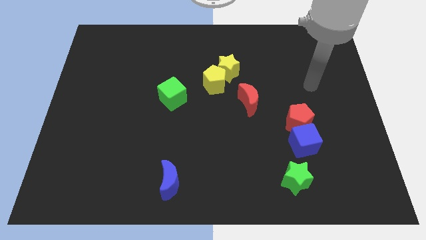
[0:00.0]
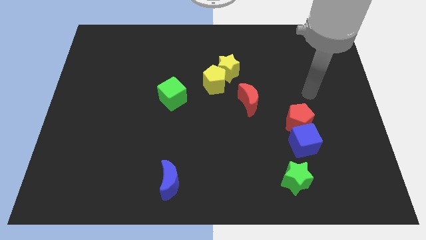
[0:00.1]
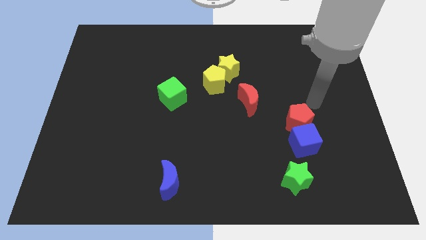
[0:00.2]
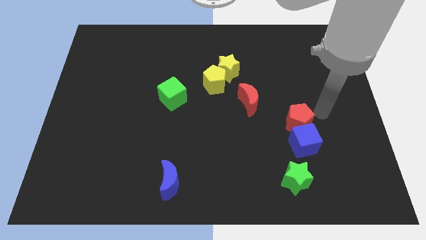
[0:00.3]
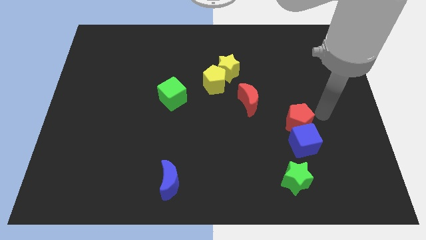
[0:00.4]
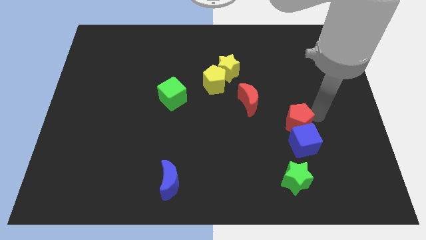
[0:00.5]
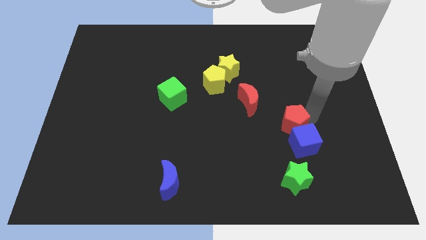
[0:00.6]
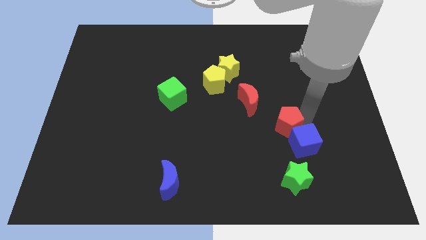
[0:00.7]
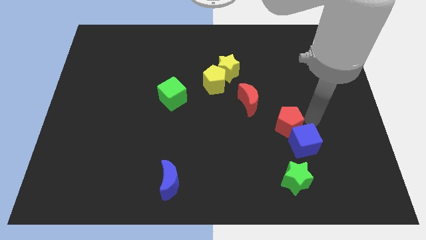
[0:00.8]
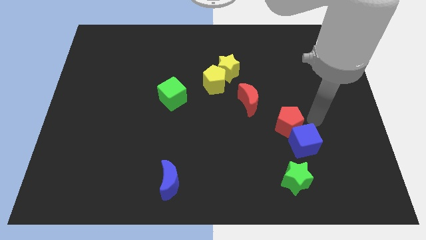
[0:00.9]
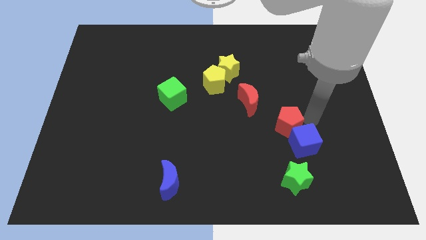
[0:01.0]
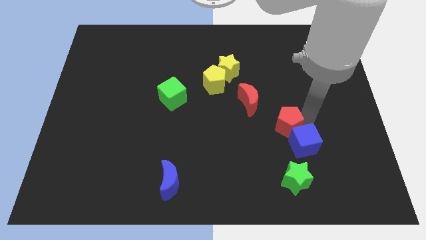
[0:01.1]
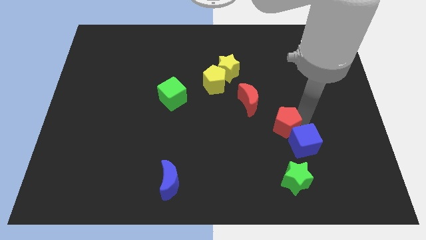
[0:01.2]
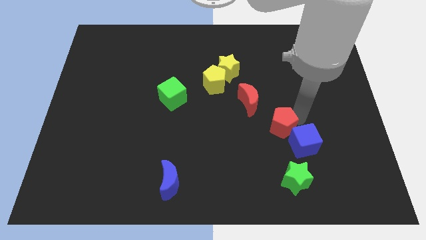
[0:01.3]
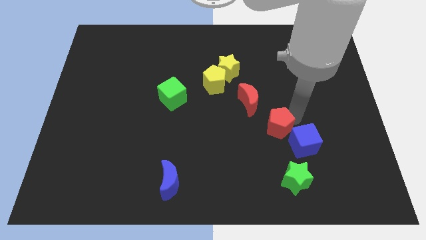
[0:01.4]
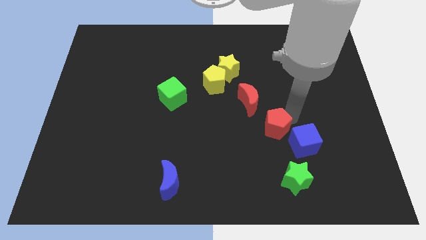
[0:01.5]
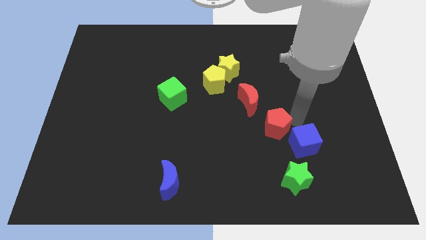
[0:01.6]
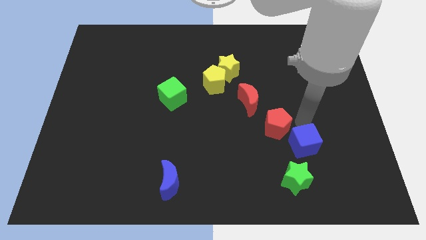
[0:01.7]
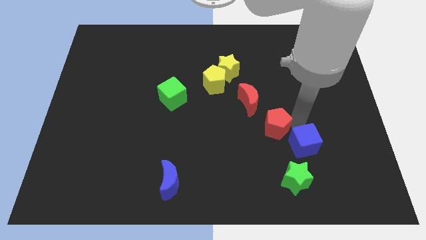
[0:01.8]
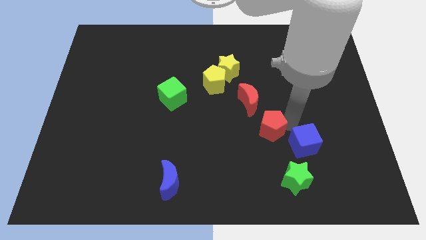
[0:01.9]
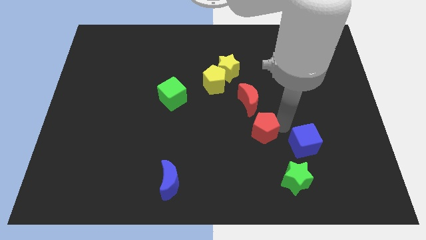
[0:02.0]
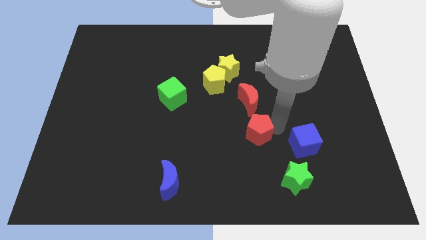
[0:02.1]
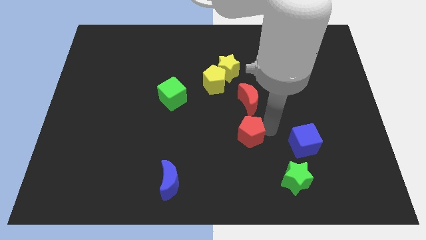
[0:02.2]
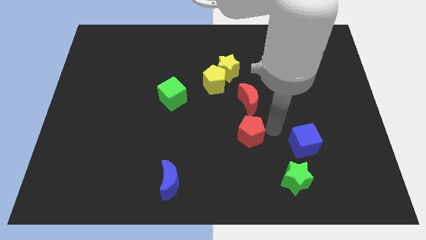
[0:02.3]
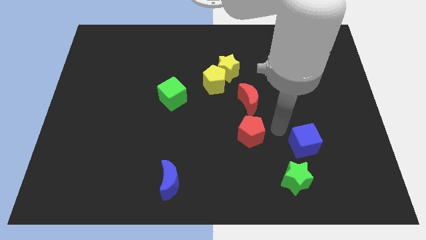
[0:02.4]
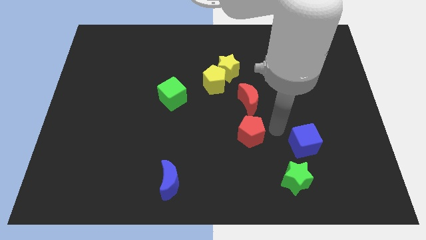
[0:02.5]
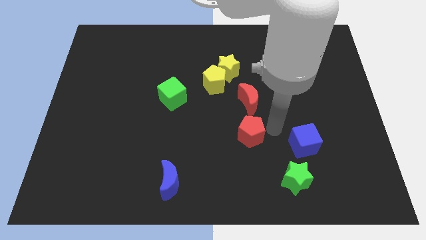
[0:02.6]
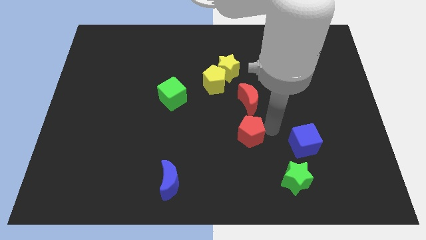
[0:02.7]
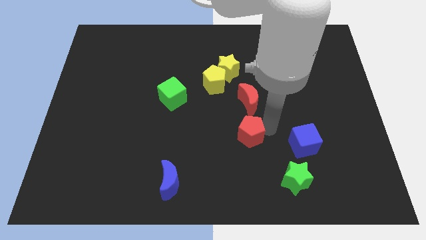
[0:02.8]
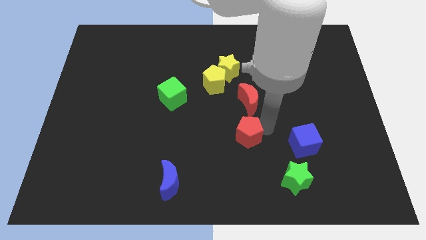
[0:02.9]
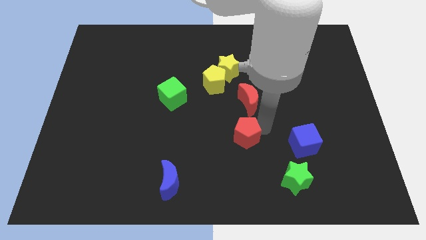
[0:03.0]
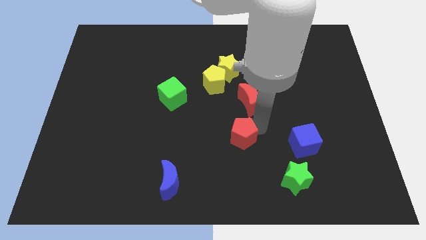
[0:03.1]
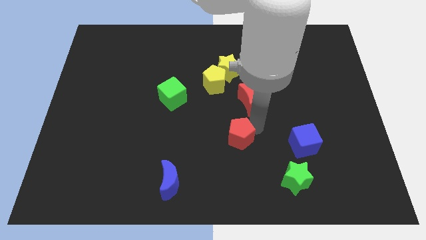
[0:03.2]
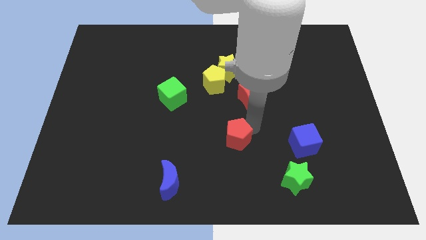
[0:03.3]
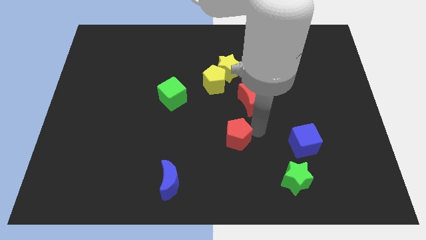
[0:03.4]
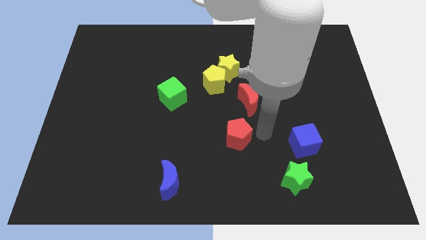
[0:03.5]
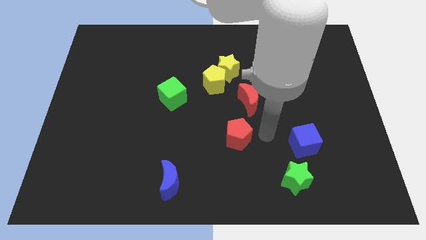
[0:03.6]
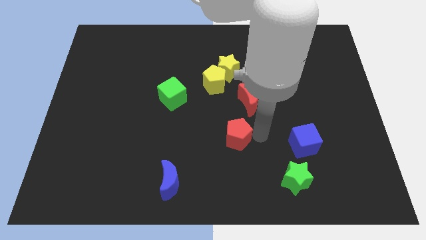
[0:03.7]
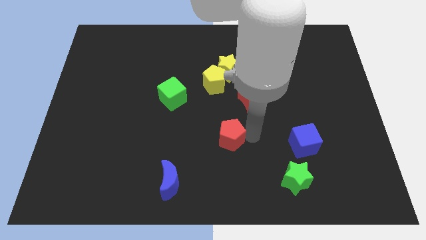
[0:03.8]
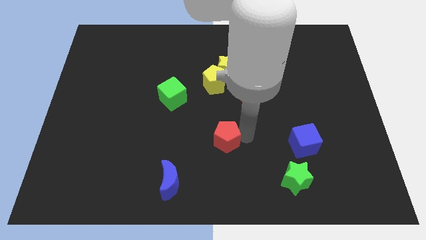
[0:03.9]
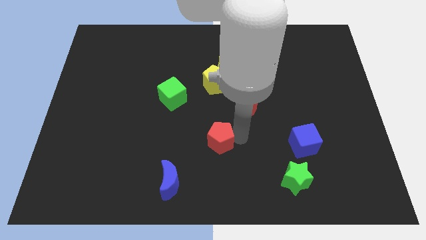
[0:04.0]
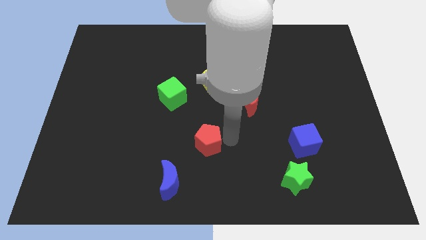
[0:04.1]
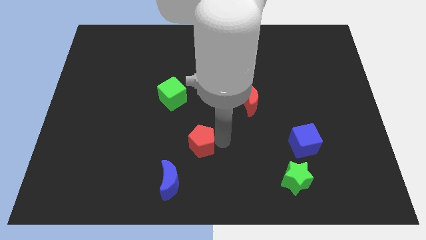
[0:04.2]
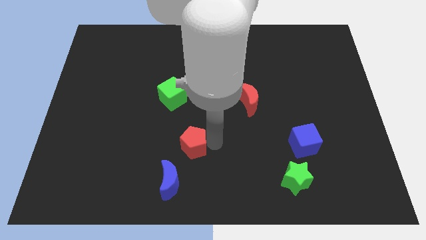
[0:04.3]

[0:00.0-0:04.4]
push the red pentagon above the blue moon

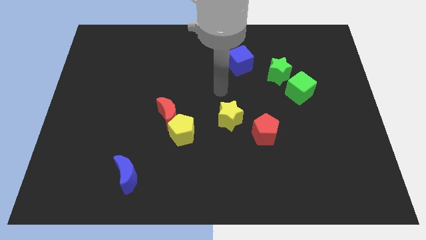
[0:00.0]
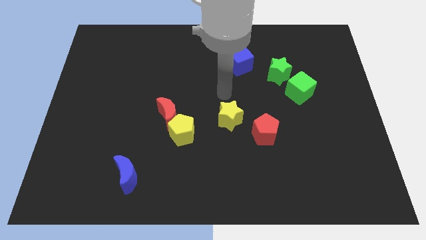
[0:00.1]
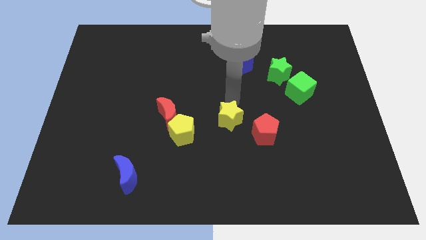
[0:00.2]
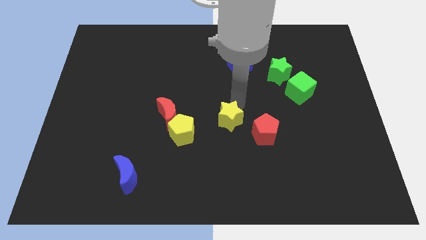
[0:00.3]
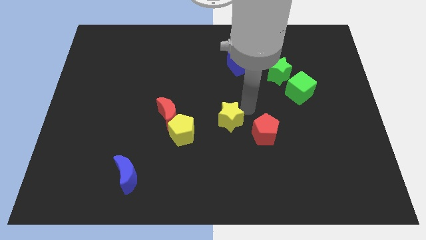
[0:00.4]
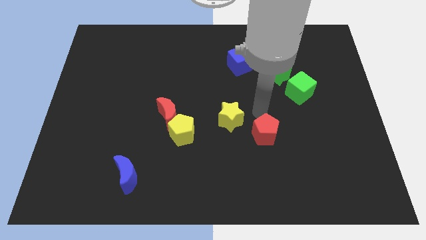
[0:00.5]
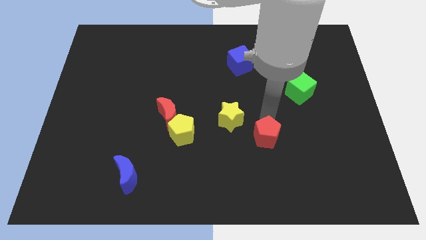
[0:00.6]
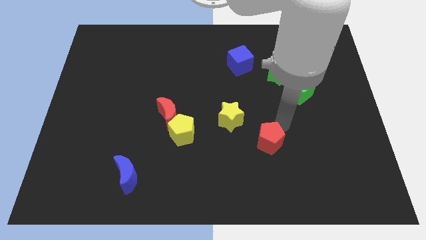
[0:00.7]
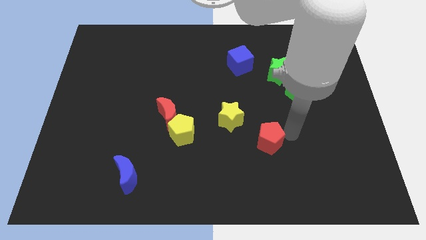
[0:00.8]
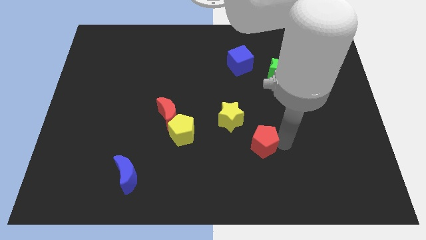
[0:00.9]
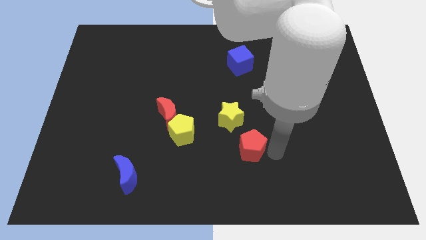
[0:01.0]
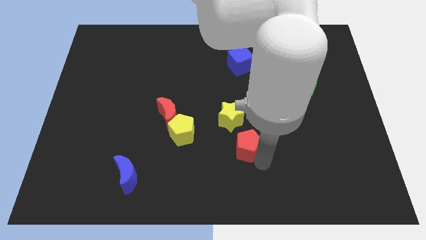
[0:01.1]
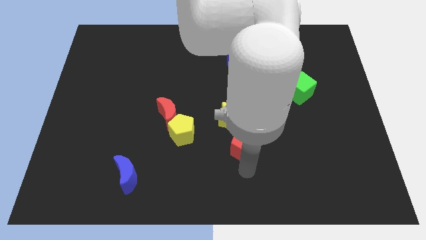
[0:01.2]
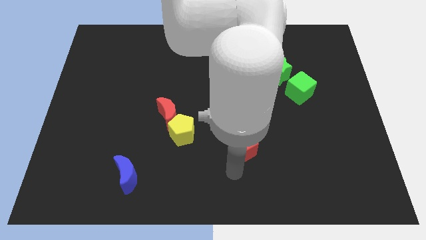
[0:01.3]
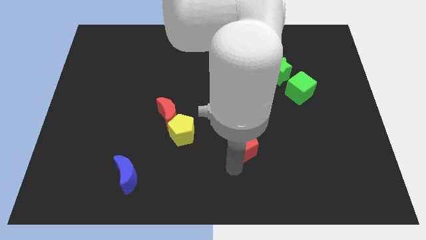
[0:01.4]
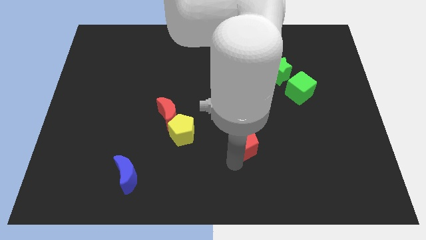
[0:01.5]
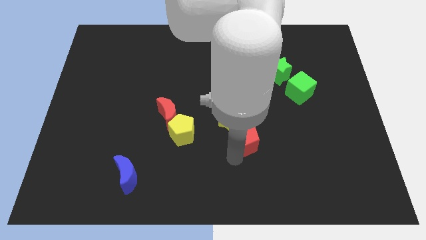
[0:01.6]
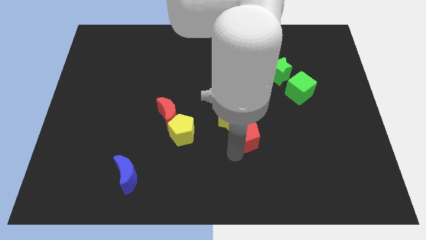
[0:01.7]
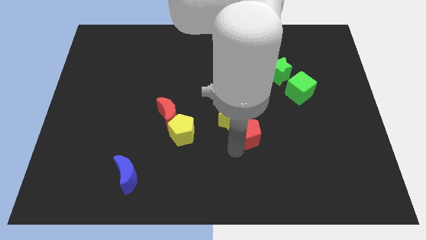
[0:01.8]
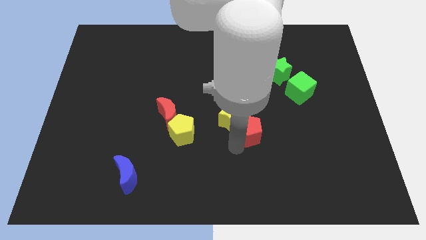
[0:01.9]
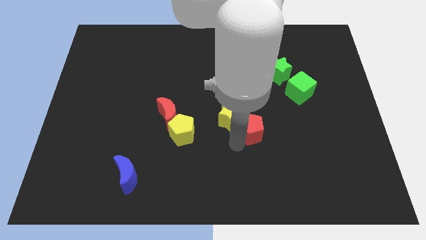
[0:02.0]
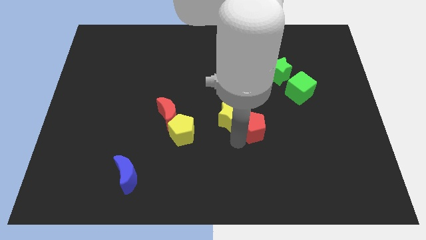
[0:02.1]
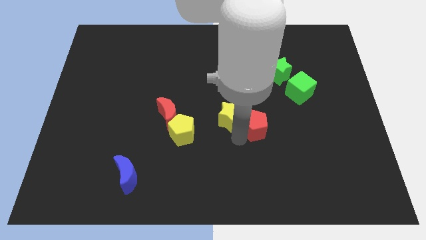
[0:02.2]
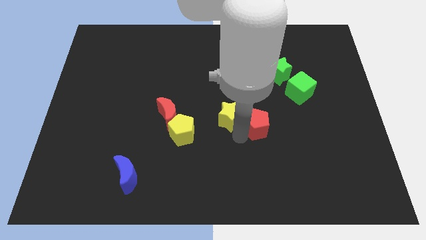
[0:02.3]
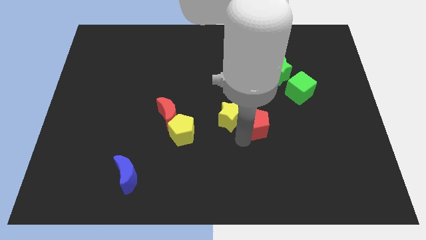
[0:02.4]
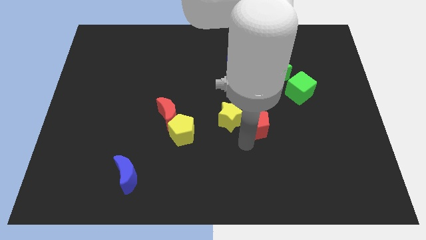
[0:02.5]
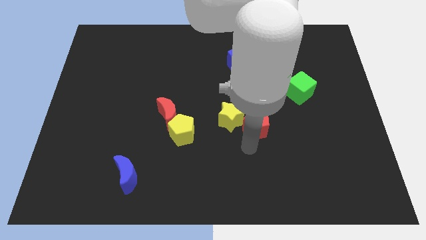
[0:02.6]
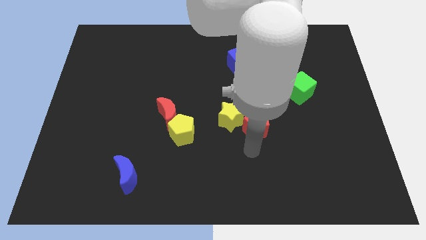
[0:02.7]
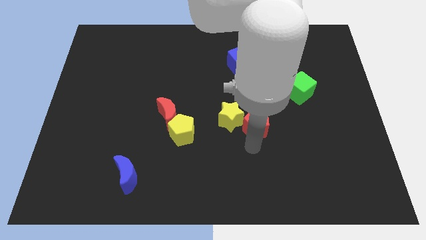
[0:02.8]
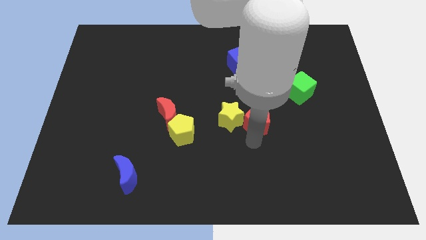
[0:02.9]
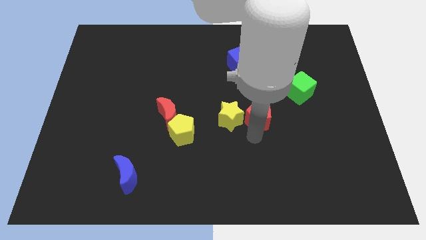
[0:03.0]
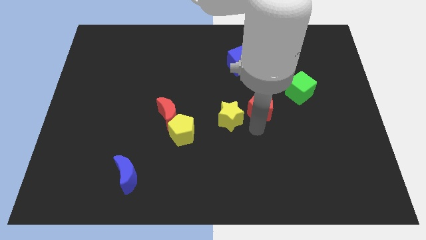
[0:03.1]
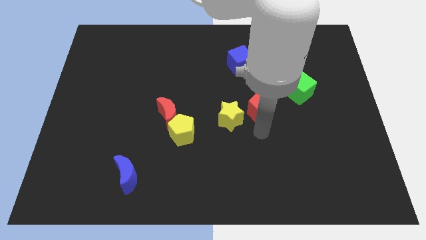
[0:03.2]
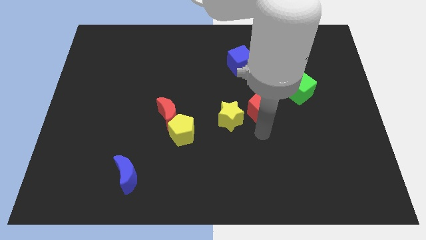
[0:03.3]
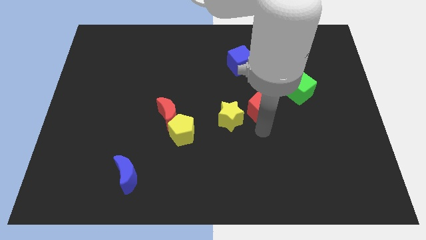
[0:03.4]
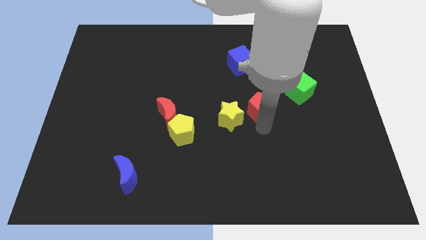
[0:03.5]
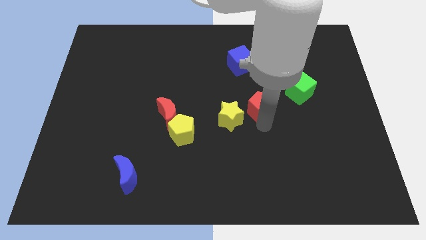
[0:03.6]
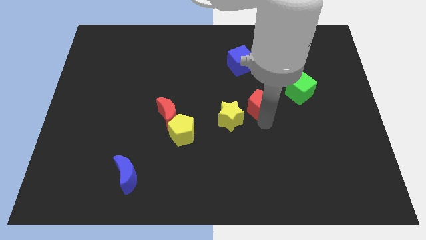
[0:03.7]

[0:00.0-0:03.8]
push the red pentagon to the bottom left side of the green star
